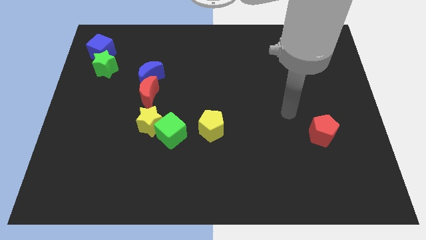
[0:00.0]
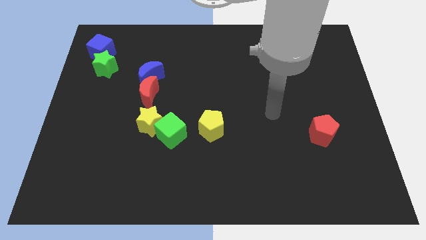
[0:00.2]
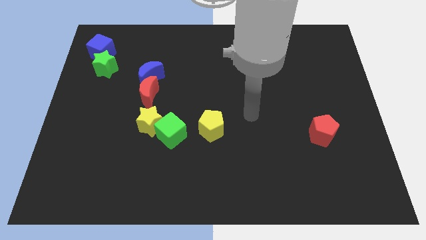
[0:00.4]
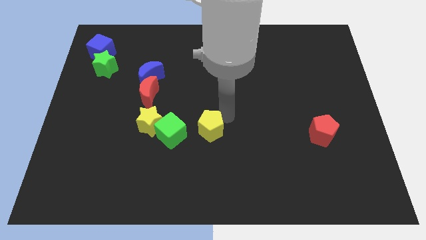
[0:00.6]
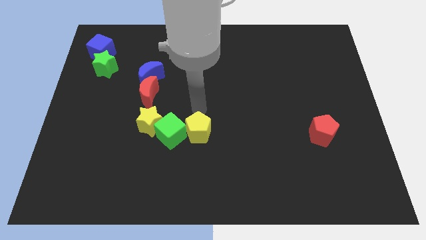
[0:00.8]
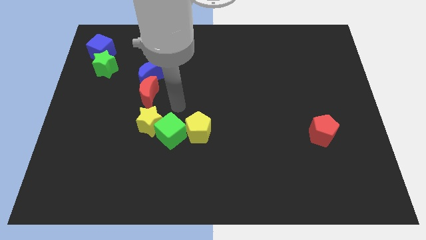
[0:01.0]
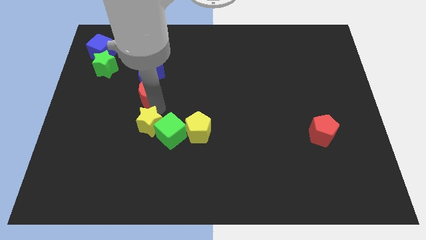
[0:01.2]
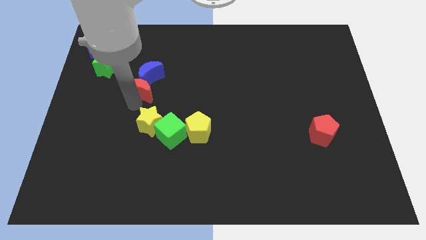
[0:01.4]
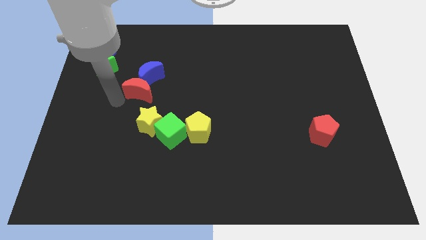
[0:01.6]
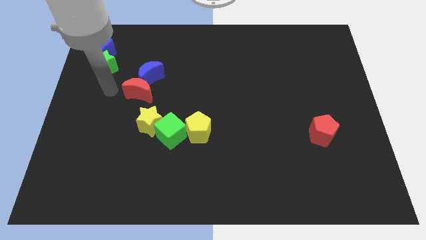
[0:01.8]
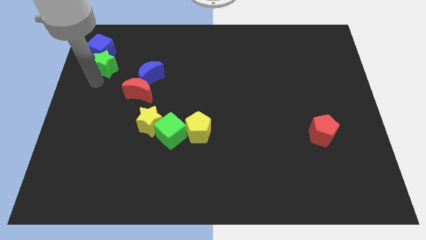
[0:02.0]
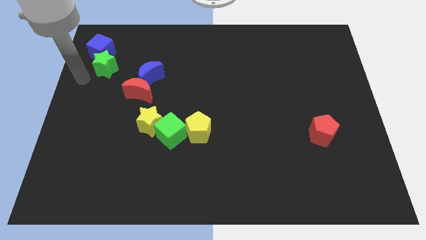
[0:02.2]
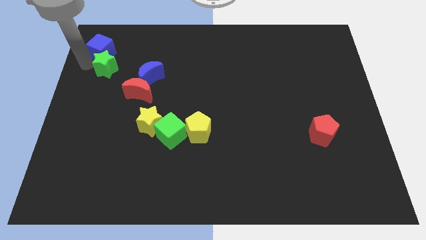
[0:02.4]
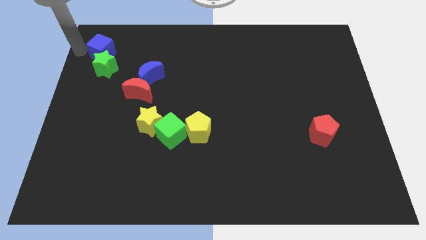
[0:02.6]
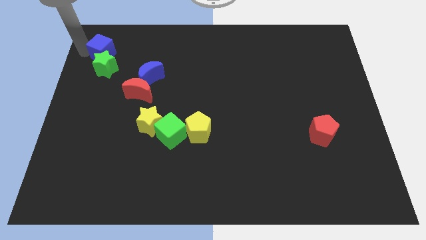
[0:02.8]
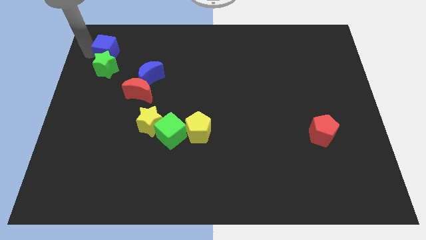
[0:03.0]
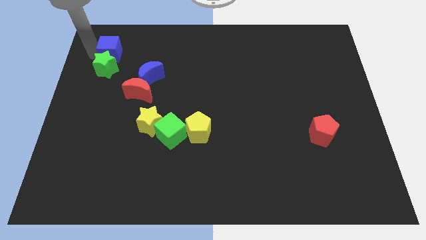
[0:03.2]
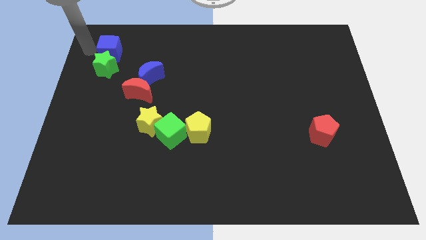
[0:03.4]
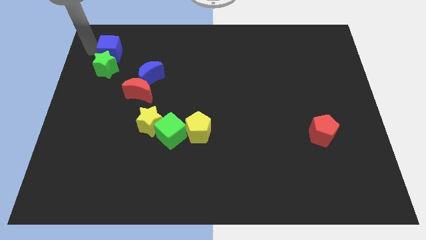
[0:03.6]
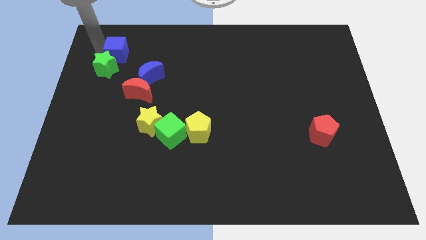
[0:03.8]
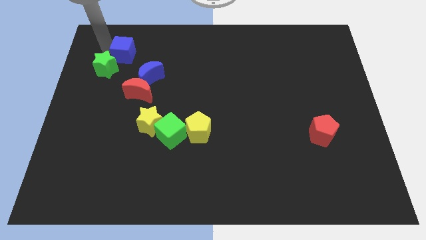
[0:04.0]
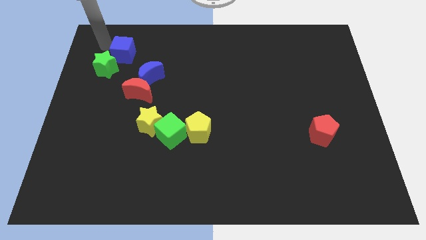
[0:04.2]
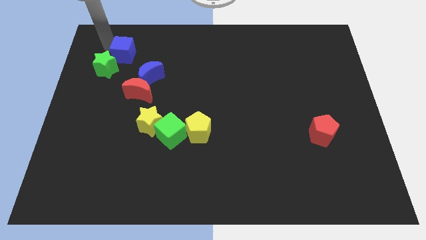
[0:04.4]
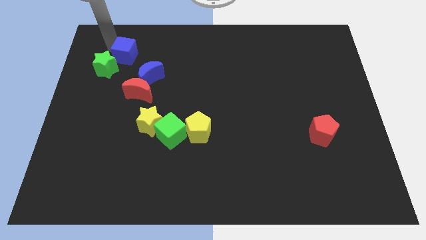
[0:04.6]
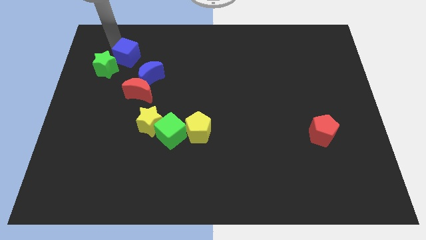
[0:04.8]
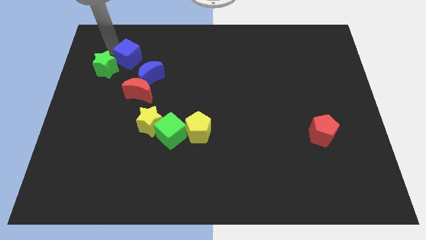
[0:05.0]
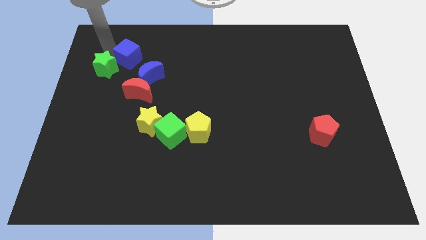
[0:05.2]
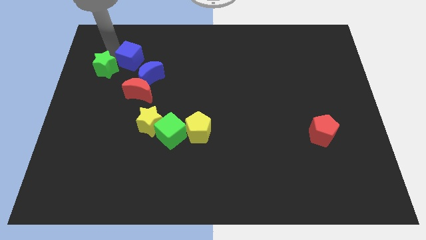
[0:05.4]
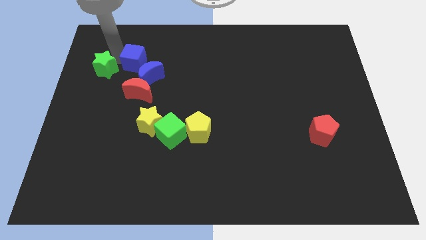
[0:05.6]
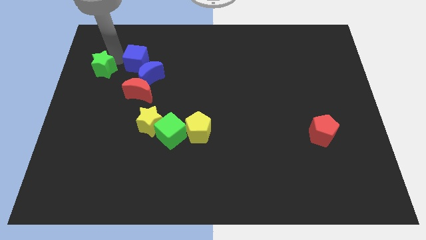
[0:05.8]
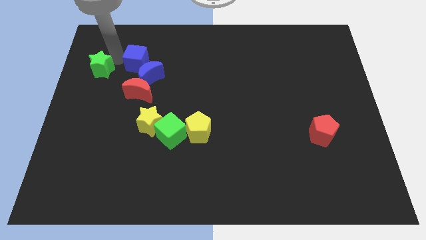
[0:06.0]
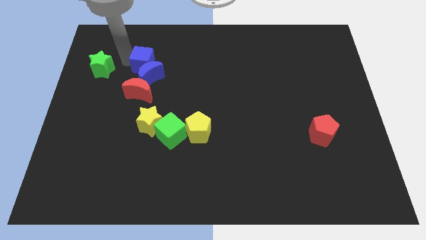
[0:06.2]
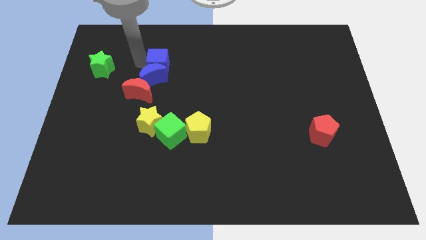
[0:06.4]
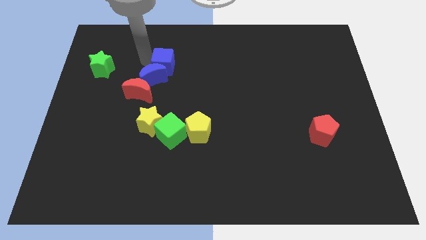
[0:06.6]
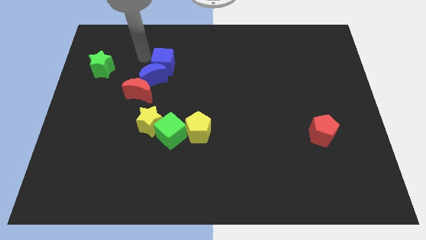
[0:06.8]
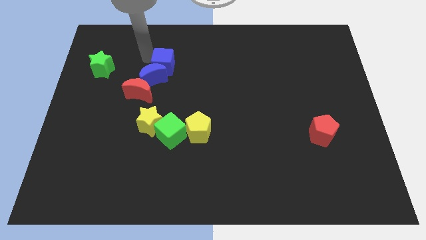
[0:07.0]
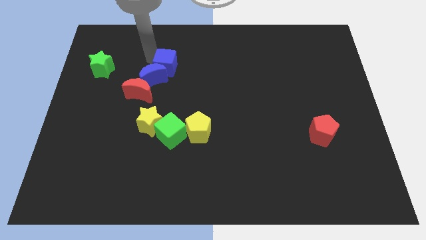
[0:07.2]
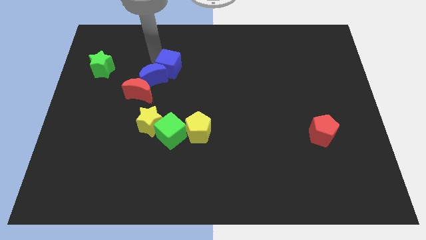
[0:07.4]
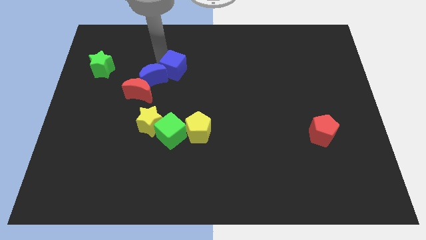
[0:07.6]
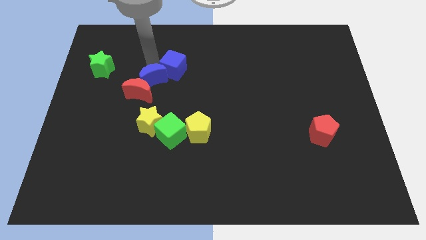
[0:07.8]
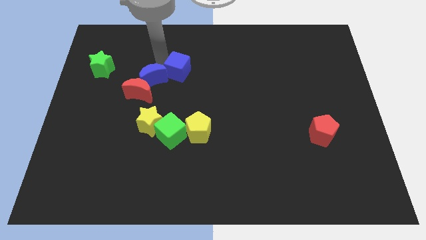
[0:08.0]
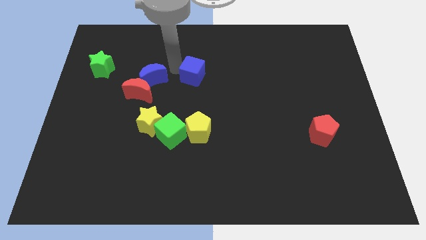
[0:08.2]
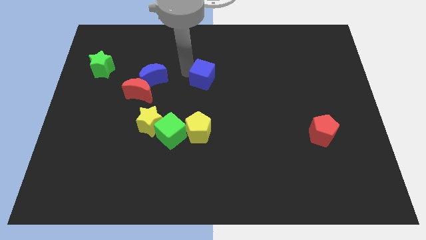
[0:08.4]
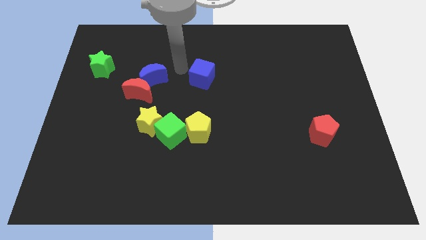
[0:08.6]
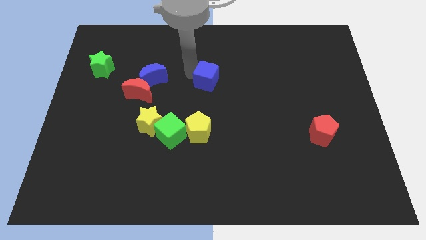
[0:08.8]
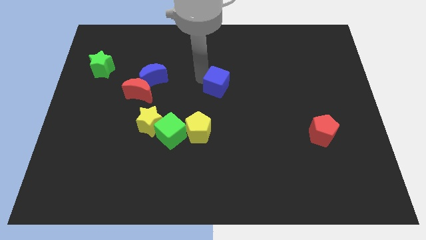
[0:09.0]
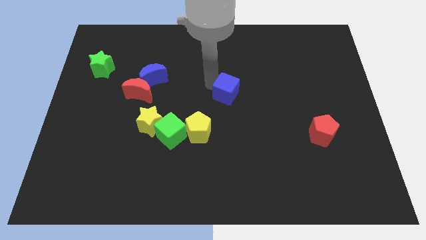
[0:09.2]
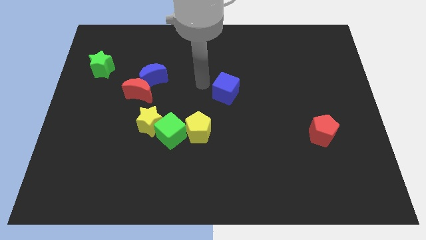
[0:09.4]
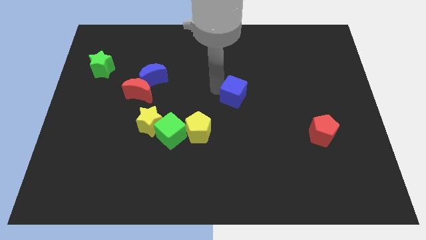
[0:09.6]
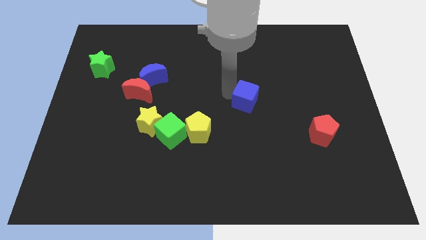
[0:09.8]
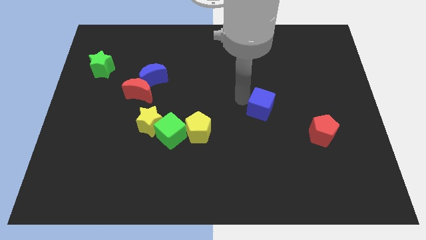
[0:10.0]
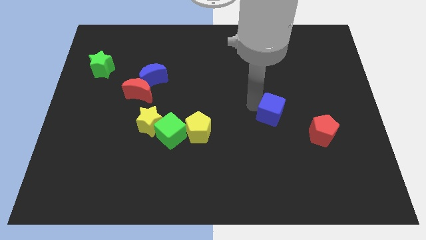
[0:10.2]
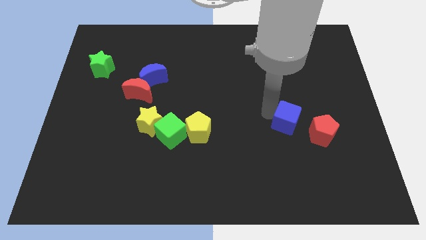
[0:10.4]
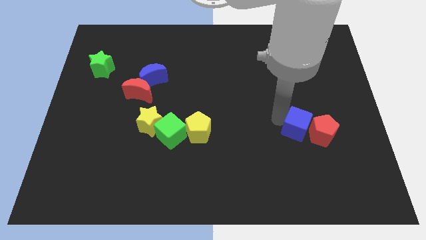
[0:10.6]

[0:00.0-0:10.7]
put the blue cube to the red pentagon

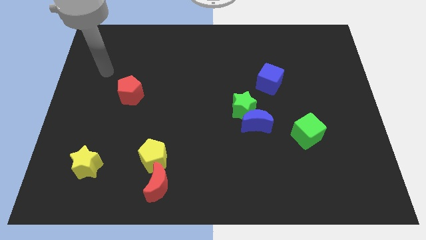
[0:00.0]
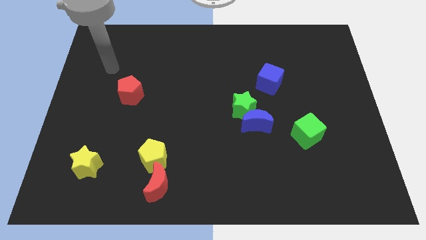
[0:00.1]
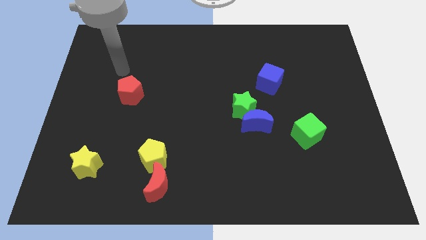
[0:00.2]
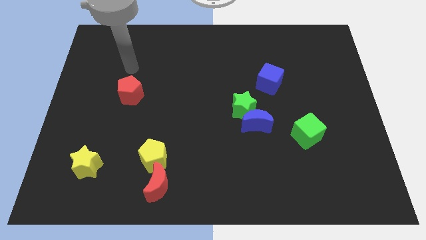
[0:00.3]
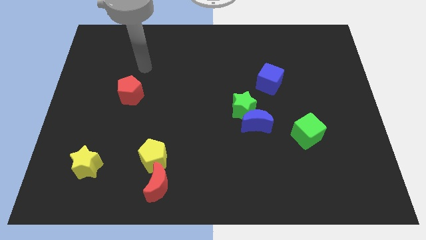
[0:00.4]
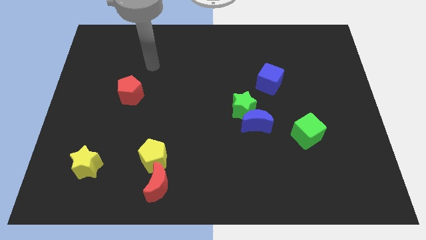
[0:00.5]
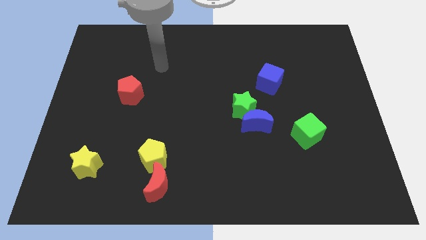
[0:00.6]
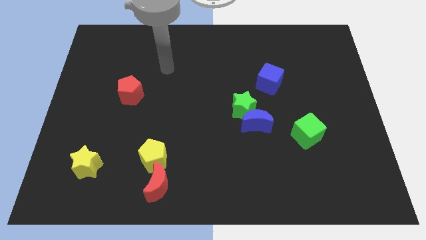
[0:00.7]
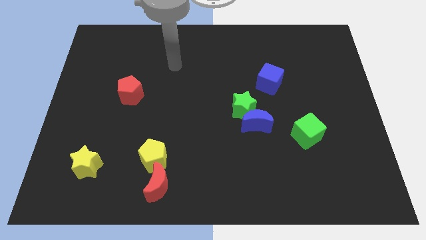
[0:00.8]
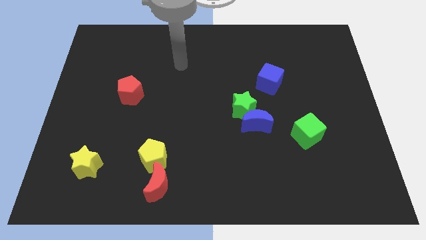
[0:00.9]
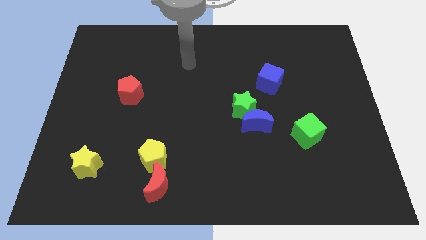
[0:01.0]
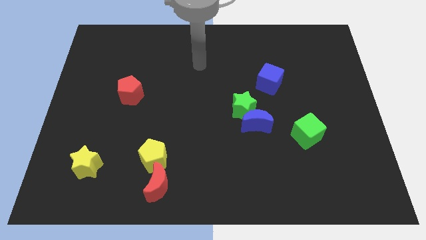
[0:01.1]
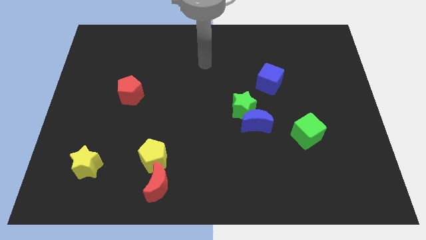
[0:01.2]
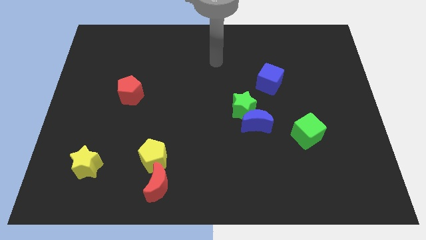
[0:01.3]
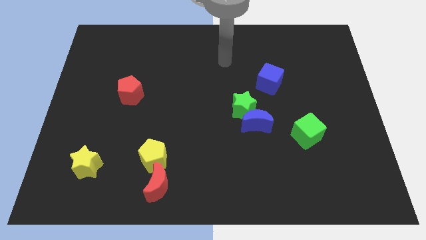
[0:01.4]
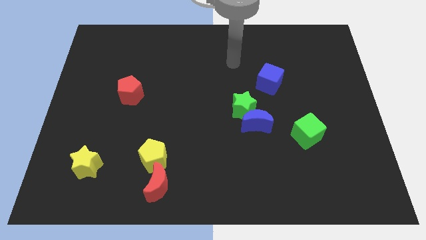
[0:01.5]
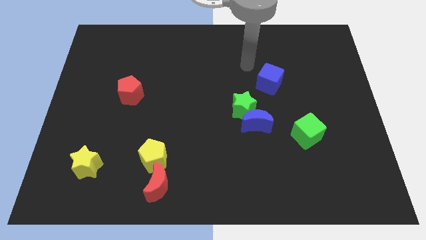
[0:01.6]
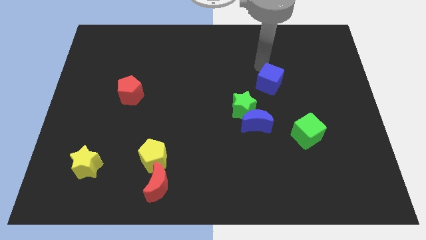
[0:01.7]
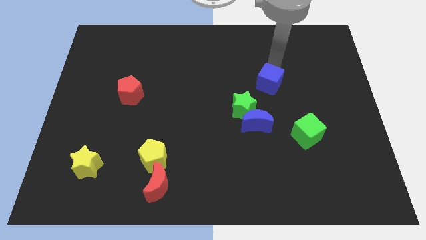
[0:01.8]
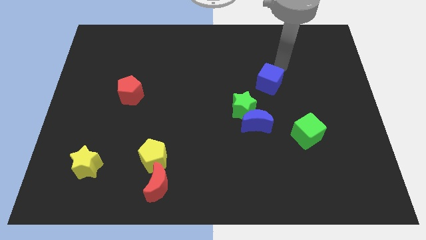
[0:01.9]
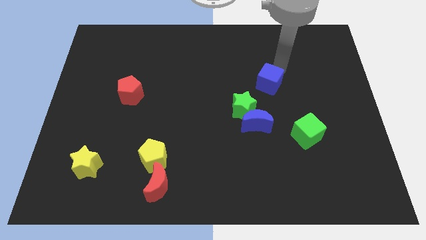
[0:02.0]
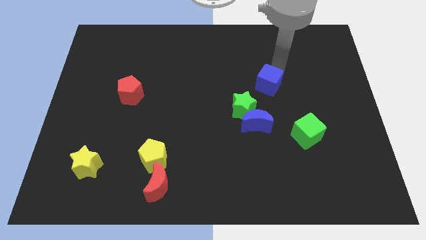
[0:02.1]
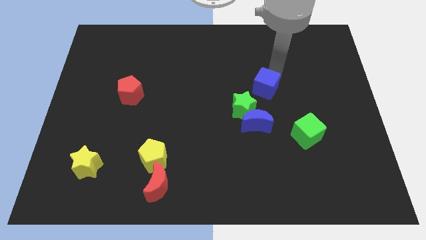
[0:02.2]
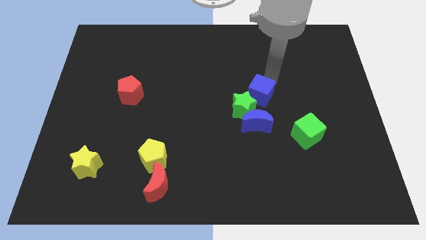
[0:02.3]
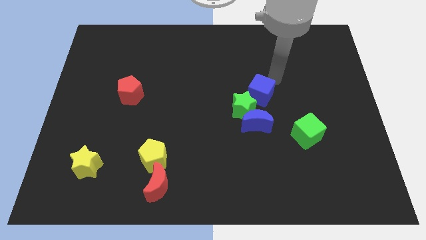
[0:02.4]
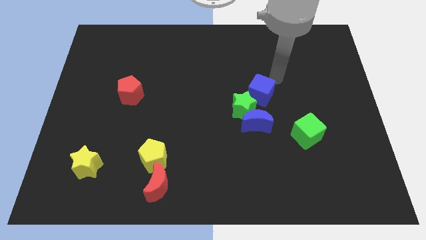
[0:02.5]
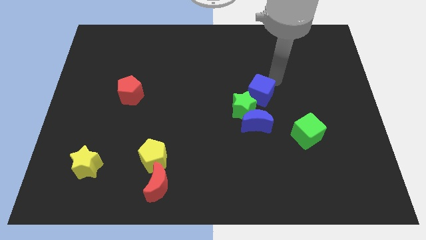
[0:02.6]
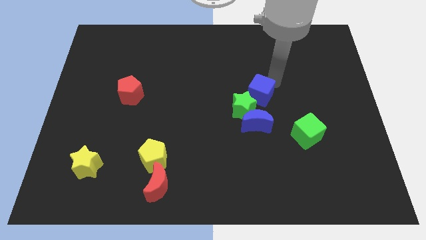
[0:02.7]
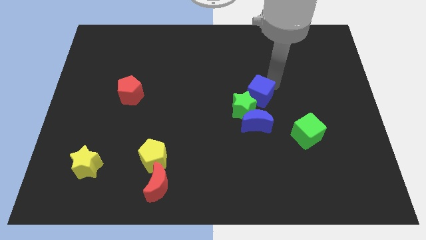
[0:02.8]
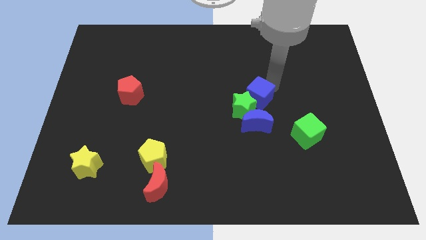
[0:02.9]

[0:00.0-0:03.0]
put the blue cube towards the green star
